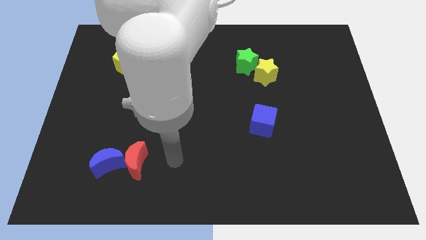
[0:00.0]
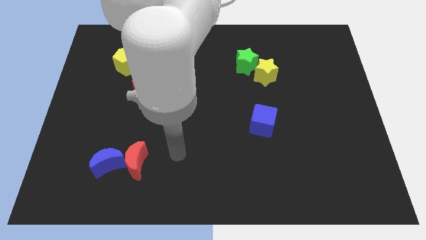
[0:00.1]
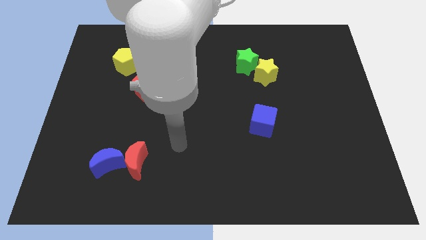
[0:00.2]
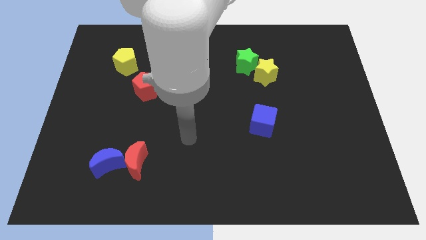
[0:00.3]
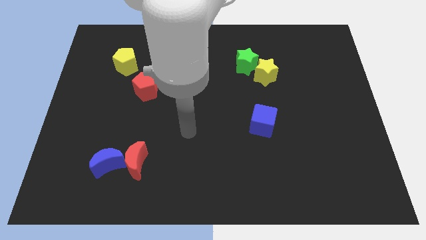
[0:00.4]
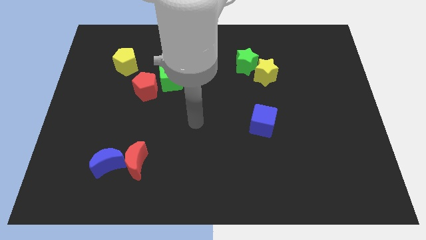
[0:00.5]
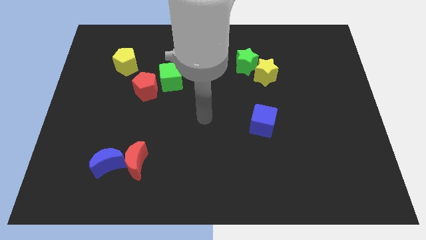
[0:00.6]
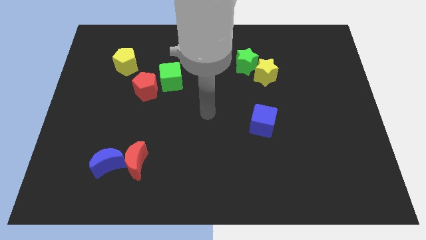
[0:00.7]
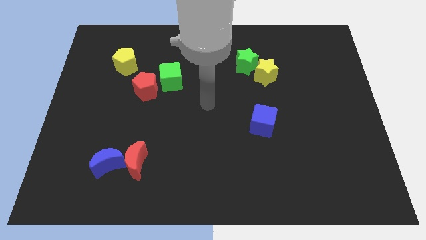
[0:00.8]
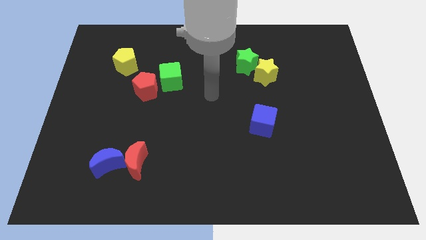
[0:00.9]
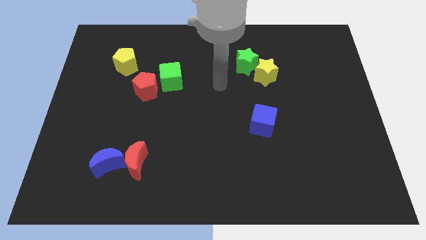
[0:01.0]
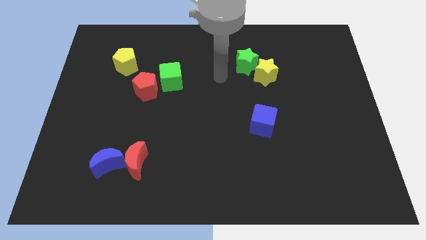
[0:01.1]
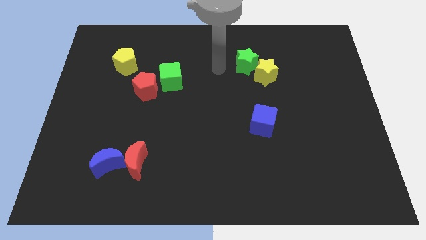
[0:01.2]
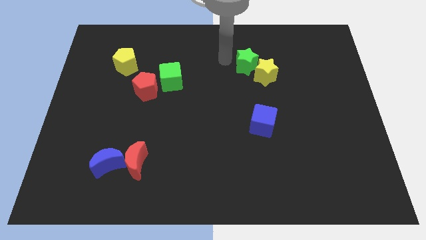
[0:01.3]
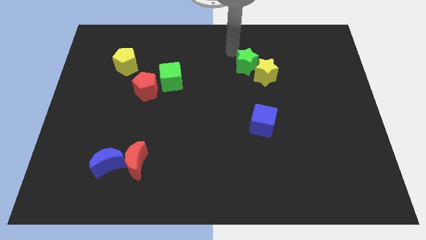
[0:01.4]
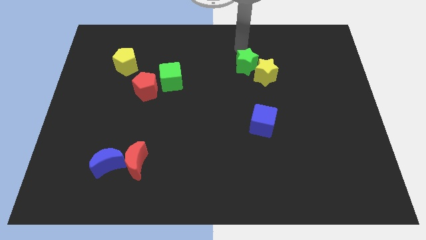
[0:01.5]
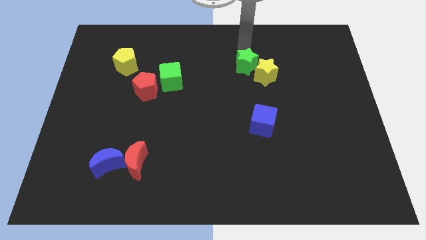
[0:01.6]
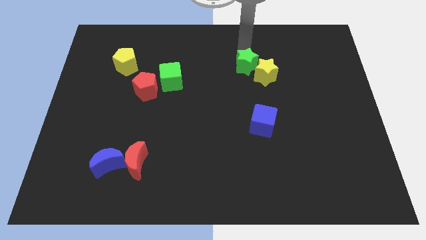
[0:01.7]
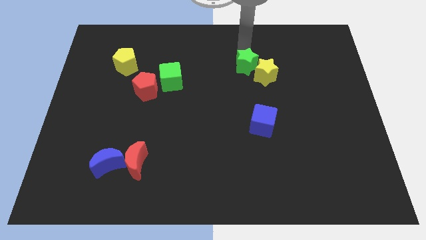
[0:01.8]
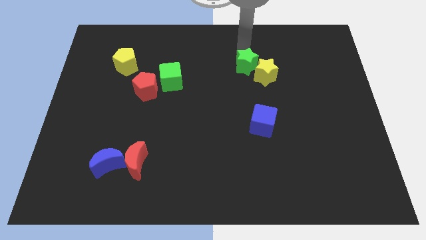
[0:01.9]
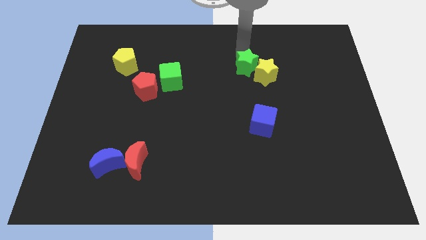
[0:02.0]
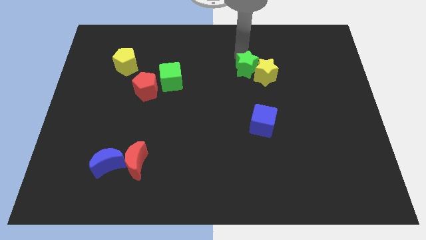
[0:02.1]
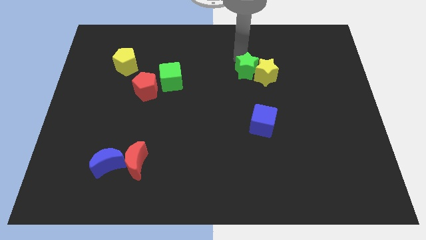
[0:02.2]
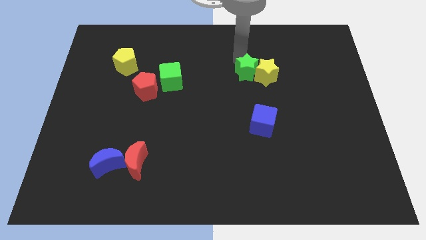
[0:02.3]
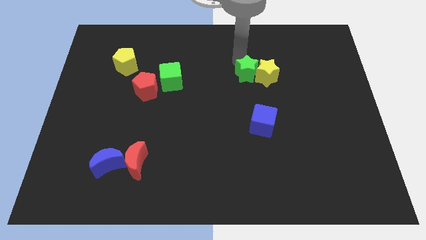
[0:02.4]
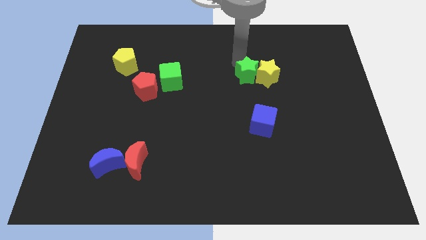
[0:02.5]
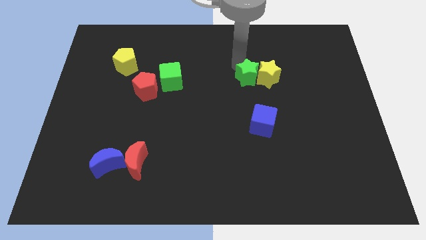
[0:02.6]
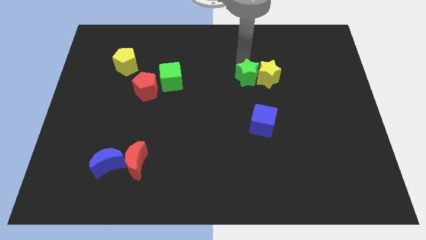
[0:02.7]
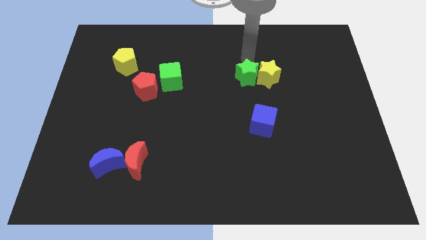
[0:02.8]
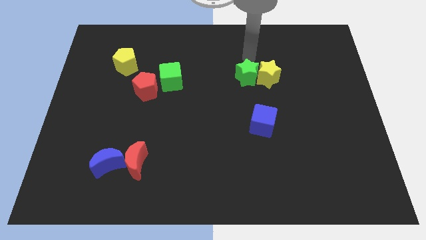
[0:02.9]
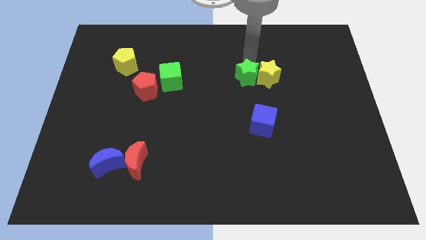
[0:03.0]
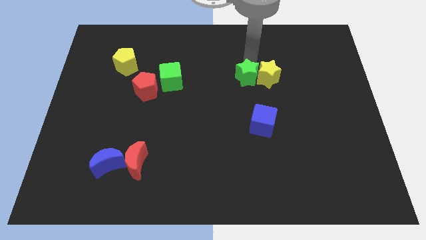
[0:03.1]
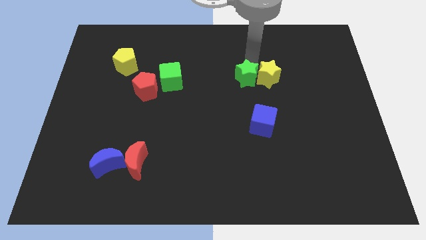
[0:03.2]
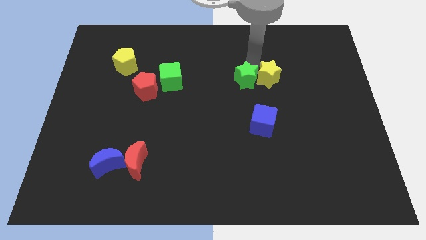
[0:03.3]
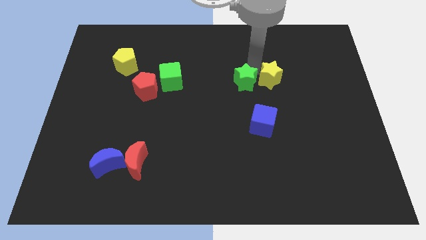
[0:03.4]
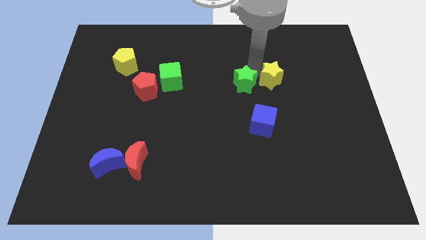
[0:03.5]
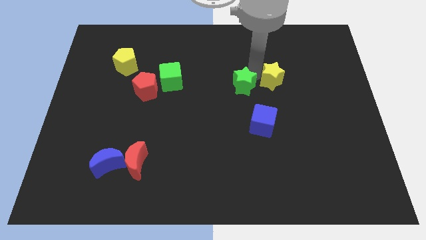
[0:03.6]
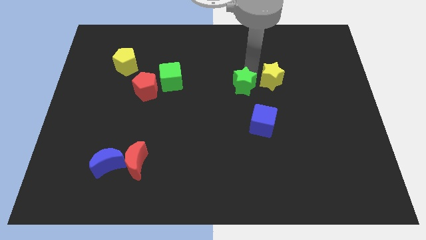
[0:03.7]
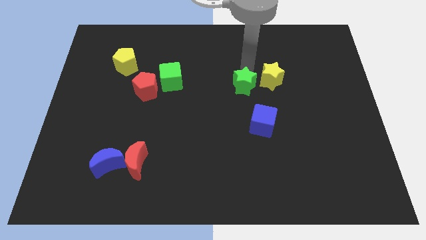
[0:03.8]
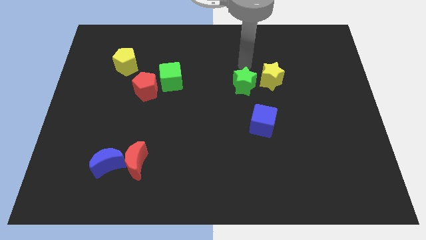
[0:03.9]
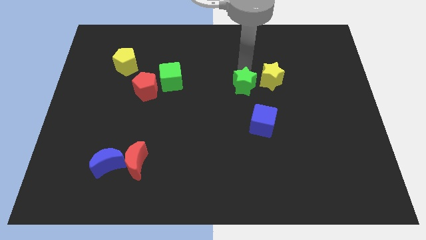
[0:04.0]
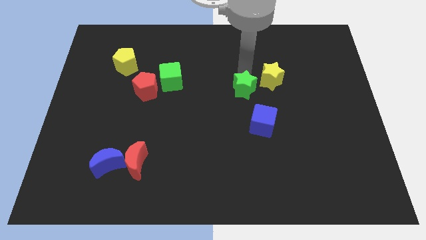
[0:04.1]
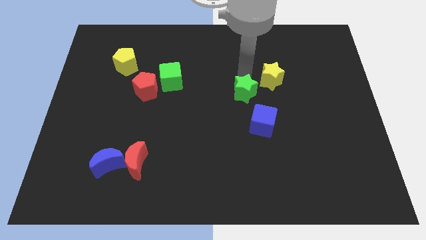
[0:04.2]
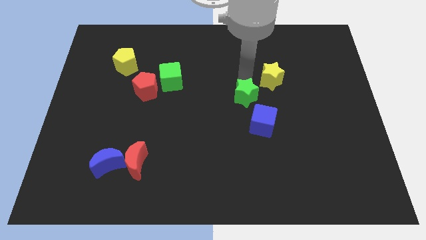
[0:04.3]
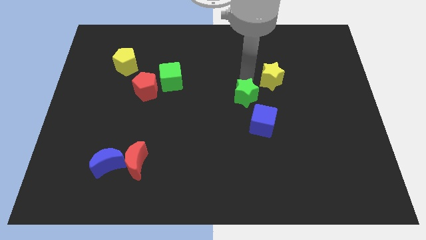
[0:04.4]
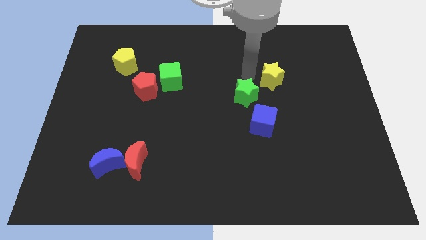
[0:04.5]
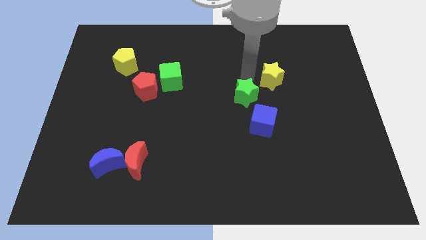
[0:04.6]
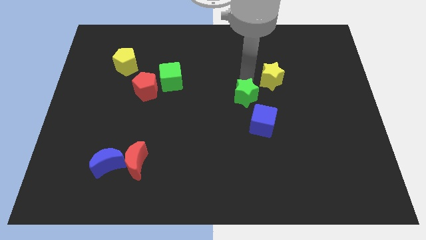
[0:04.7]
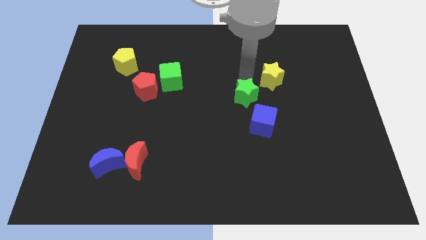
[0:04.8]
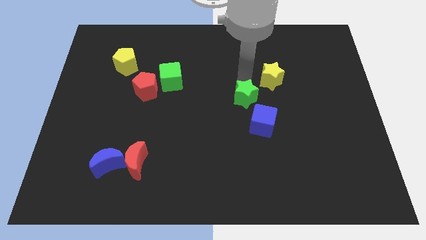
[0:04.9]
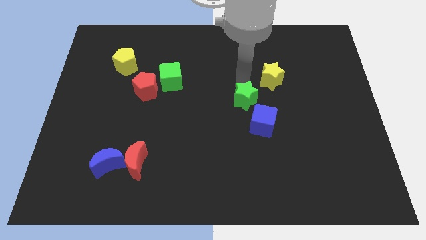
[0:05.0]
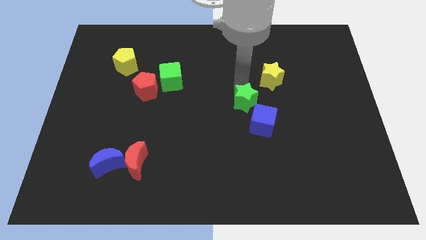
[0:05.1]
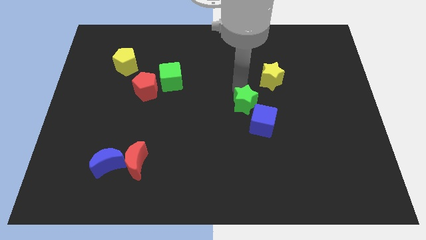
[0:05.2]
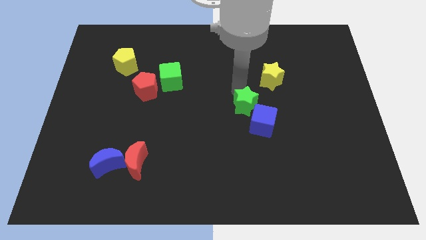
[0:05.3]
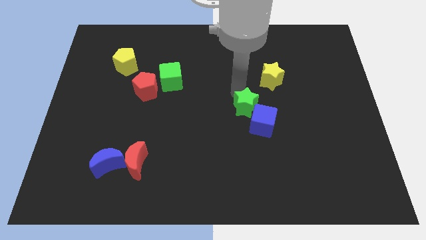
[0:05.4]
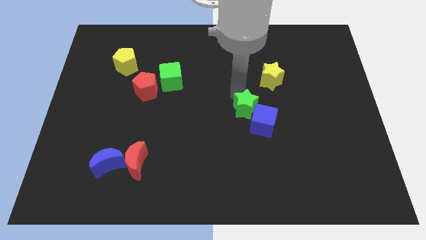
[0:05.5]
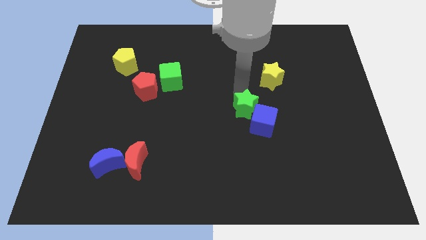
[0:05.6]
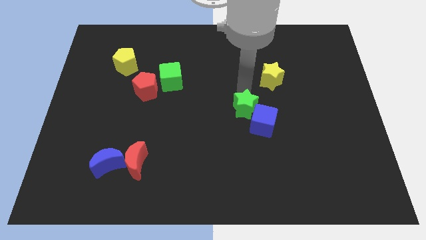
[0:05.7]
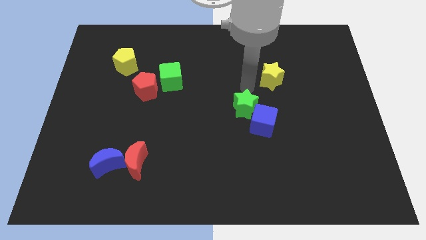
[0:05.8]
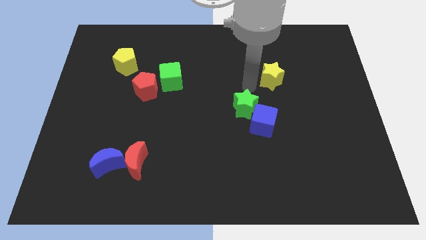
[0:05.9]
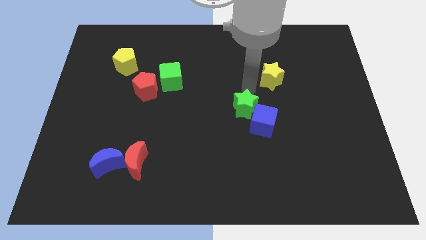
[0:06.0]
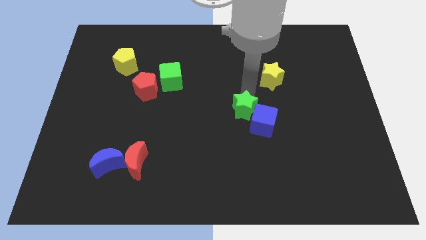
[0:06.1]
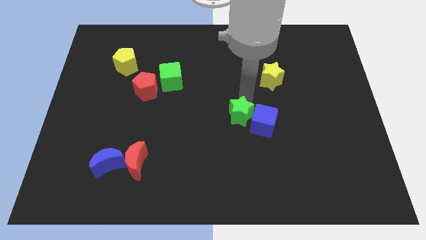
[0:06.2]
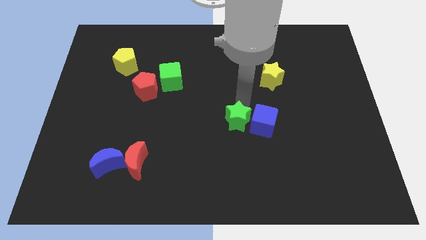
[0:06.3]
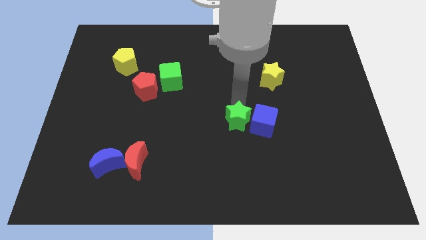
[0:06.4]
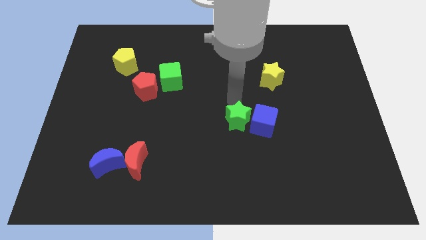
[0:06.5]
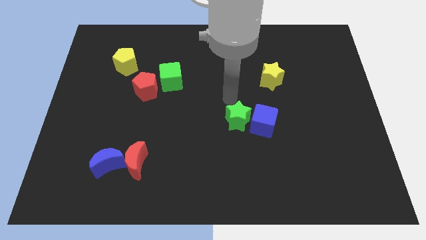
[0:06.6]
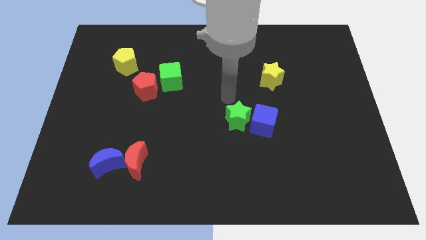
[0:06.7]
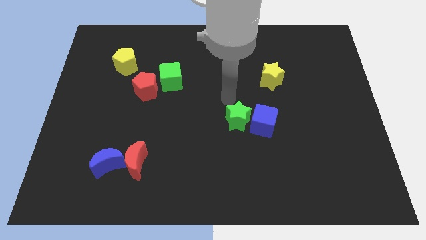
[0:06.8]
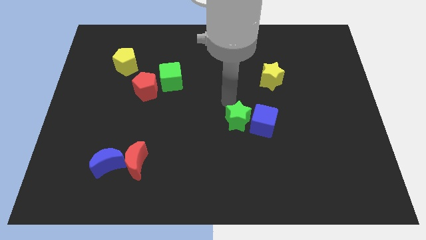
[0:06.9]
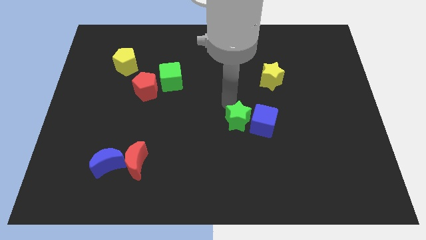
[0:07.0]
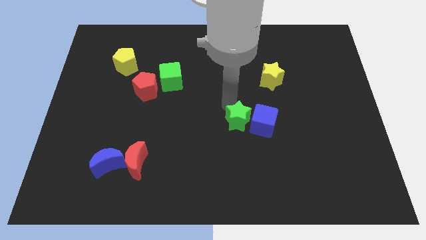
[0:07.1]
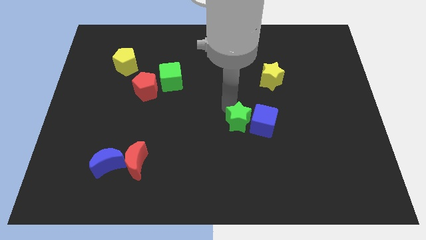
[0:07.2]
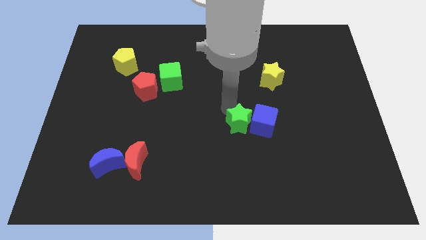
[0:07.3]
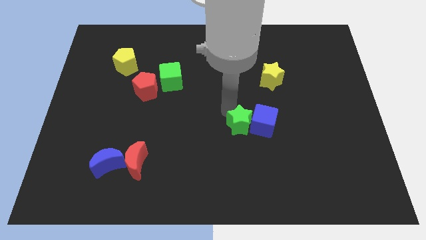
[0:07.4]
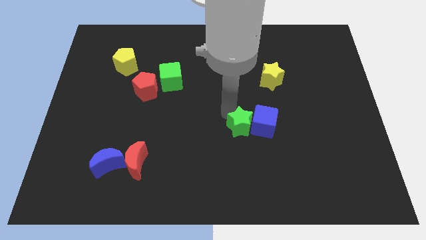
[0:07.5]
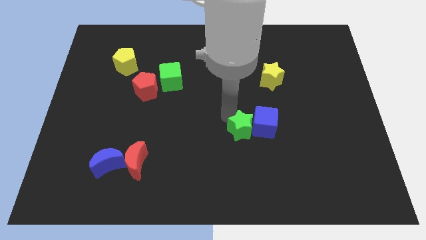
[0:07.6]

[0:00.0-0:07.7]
push the green star down
